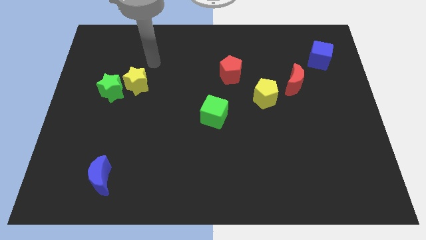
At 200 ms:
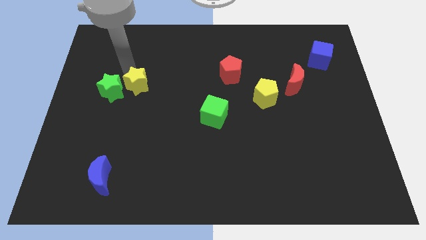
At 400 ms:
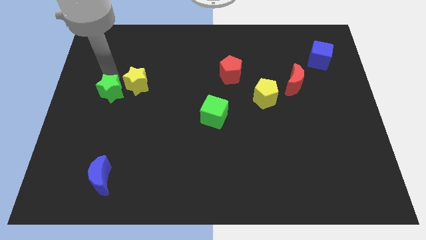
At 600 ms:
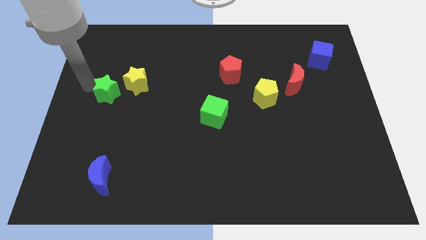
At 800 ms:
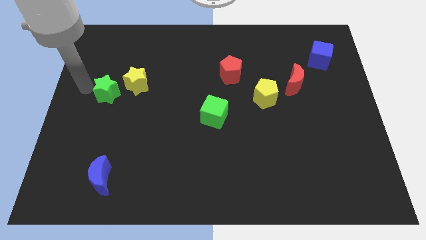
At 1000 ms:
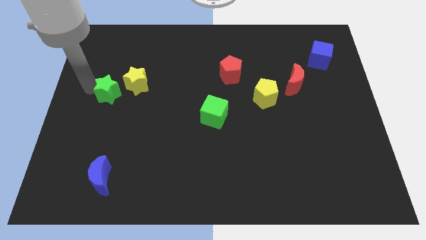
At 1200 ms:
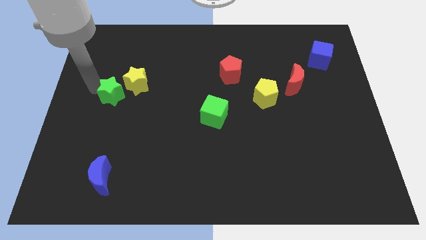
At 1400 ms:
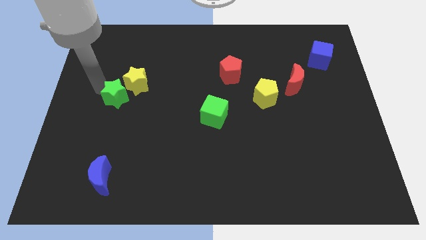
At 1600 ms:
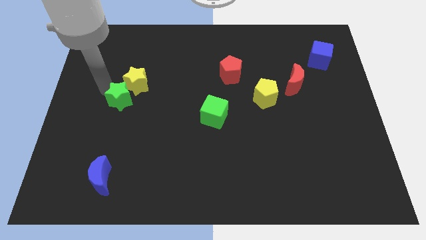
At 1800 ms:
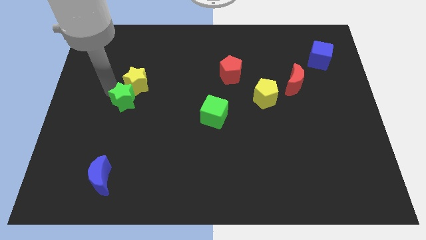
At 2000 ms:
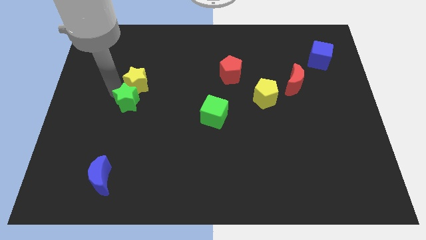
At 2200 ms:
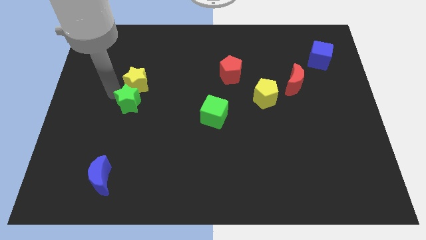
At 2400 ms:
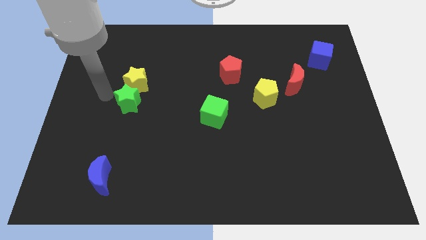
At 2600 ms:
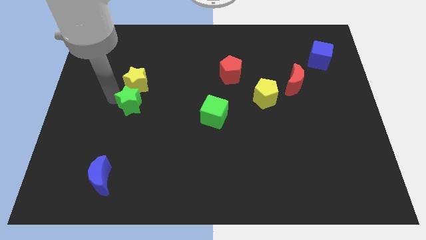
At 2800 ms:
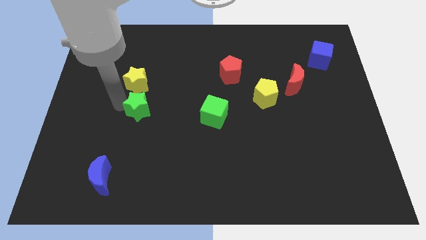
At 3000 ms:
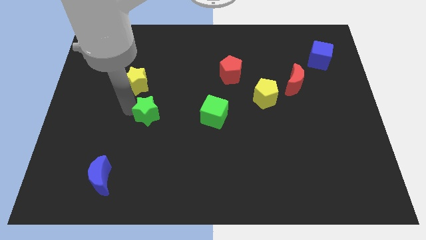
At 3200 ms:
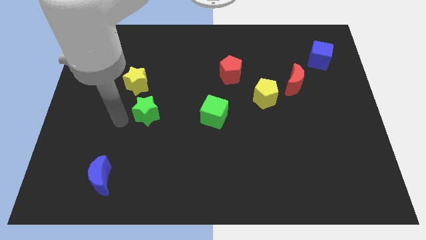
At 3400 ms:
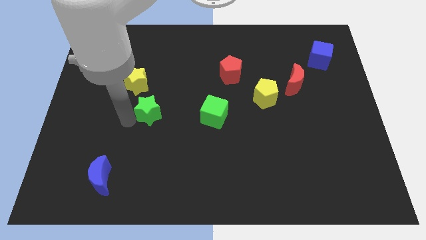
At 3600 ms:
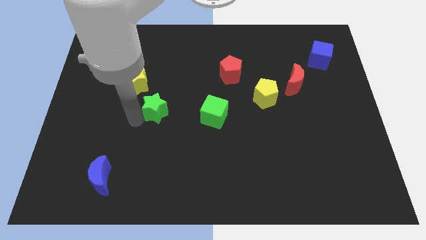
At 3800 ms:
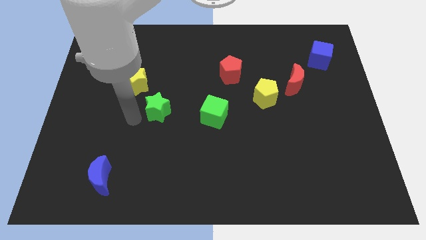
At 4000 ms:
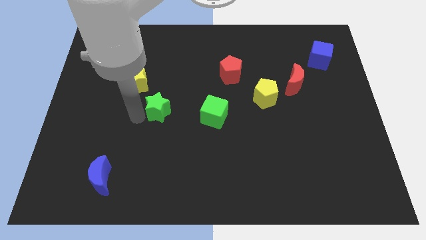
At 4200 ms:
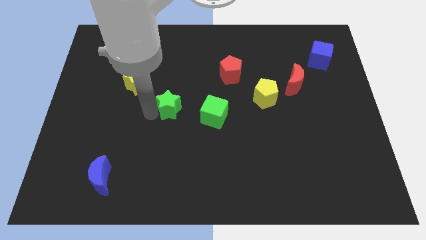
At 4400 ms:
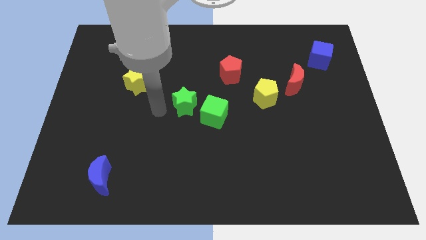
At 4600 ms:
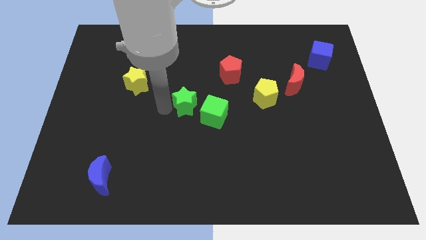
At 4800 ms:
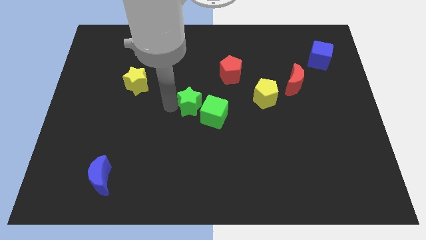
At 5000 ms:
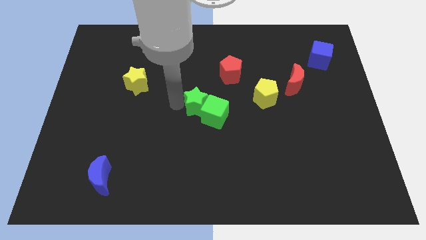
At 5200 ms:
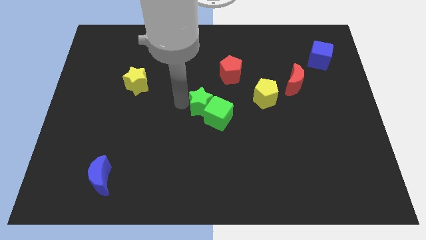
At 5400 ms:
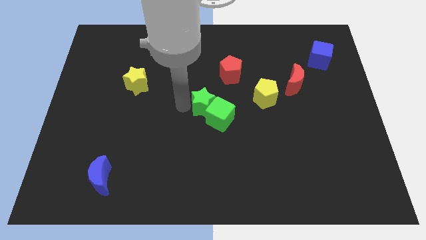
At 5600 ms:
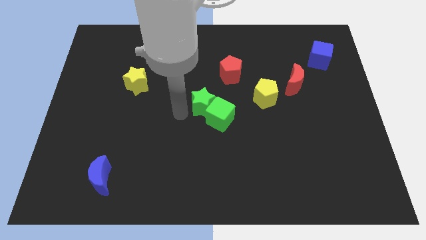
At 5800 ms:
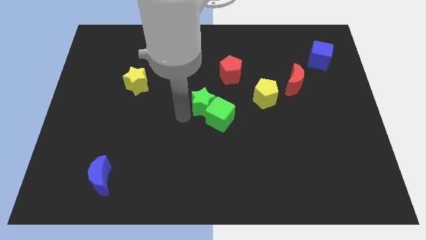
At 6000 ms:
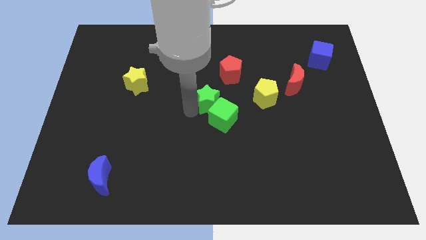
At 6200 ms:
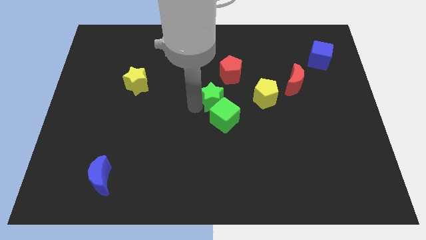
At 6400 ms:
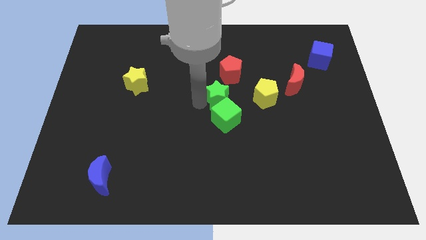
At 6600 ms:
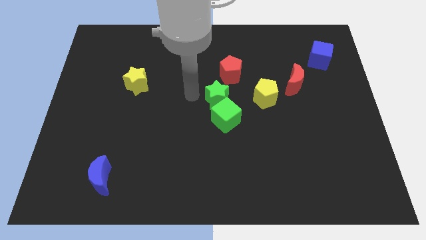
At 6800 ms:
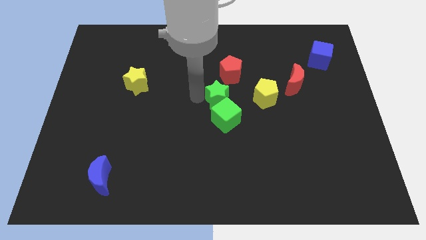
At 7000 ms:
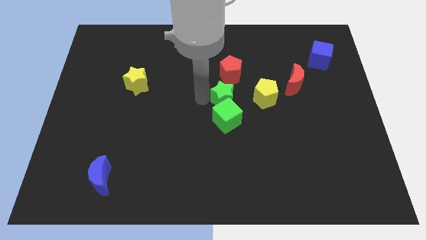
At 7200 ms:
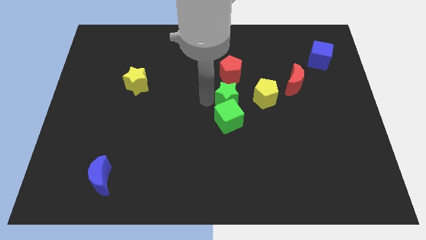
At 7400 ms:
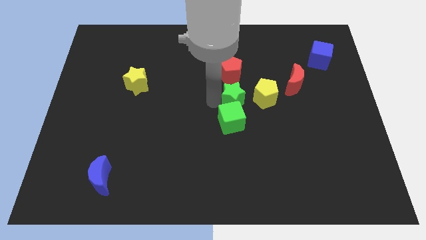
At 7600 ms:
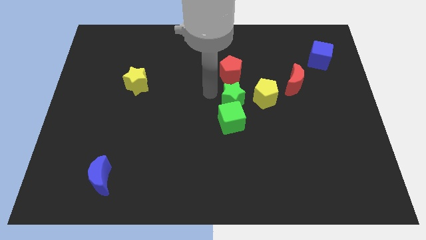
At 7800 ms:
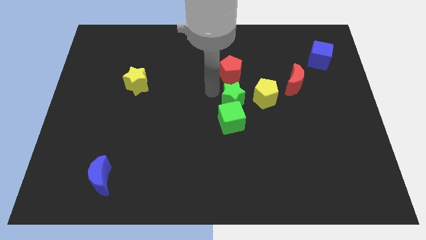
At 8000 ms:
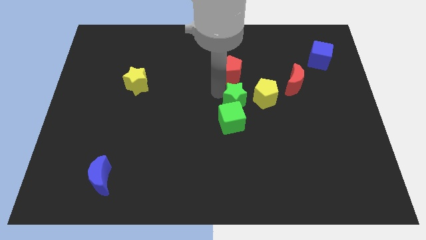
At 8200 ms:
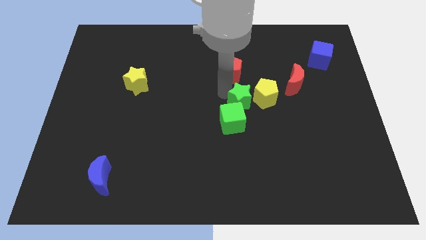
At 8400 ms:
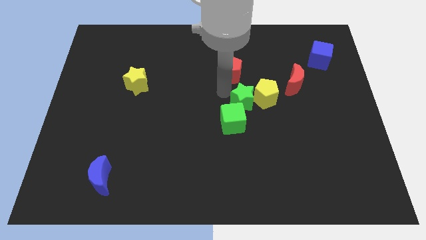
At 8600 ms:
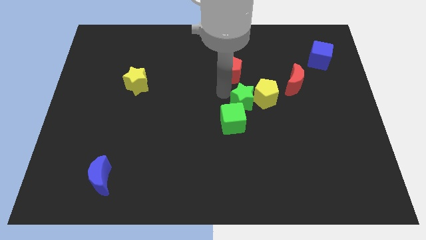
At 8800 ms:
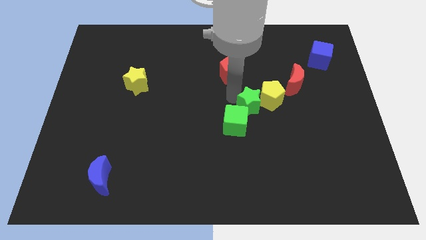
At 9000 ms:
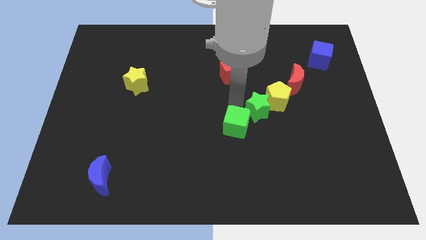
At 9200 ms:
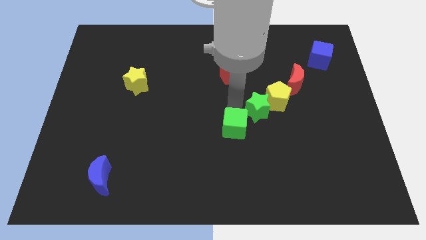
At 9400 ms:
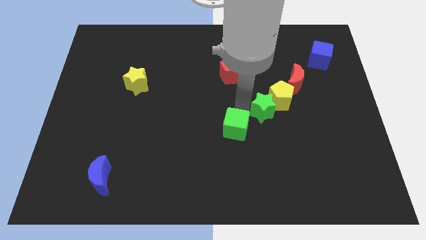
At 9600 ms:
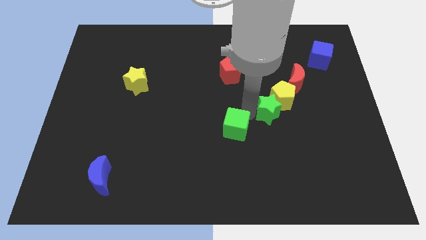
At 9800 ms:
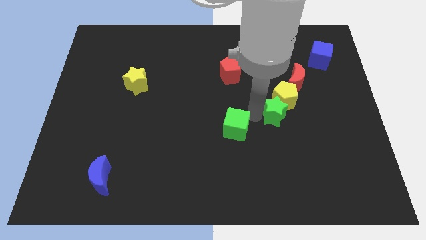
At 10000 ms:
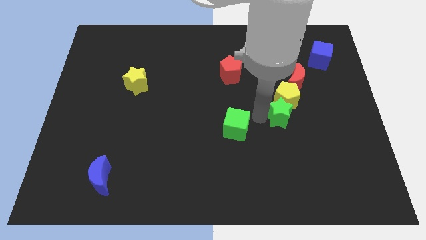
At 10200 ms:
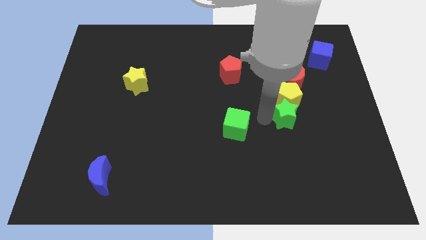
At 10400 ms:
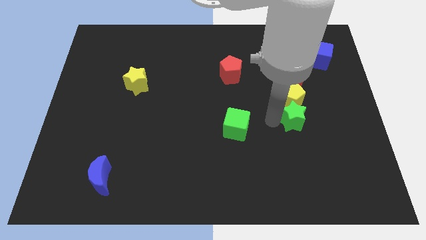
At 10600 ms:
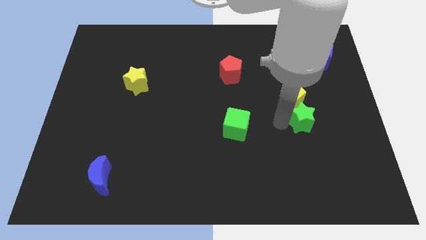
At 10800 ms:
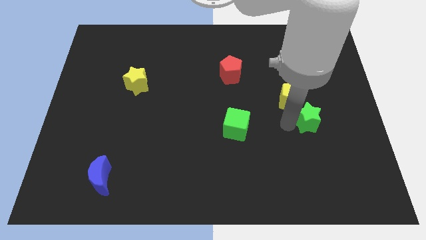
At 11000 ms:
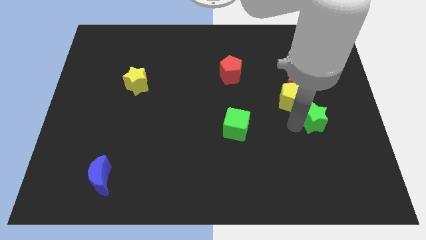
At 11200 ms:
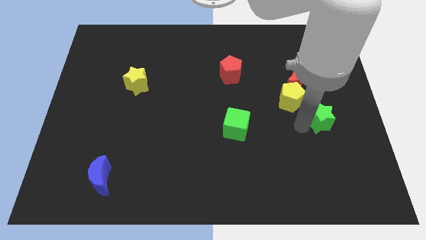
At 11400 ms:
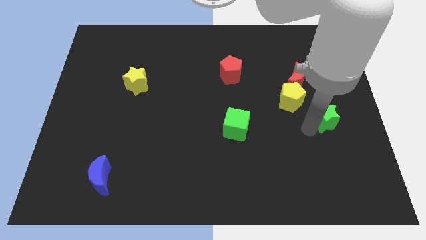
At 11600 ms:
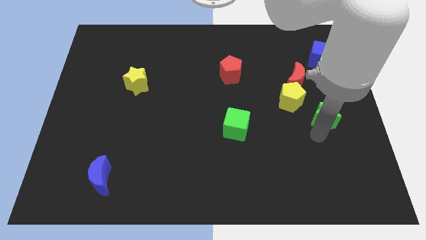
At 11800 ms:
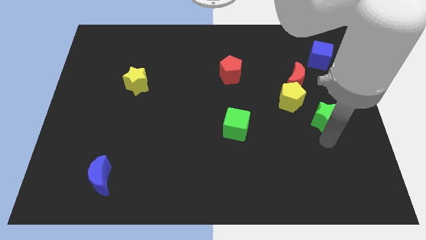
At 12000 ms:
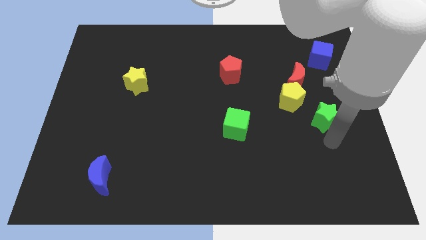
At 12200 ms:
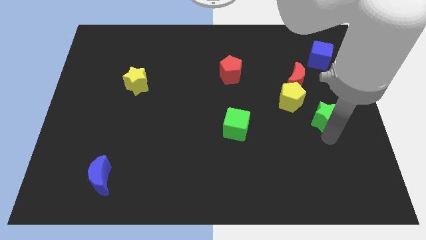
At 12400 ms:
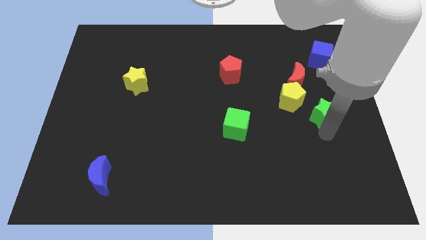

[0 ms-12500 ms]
move the green star to the center right

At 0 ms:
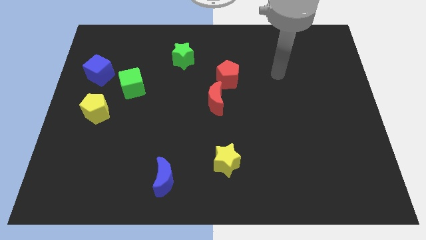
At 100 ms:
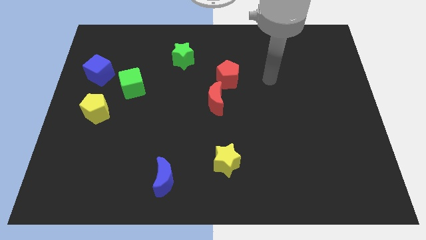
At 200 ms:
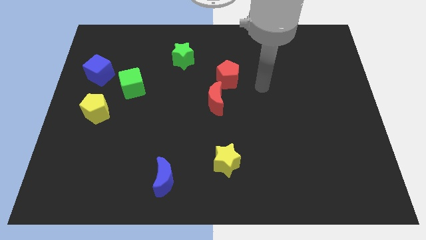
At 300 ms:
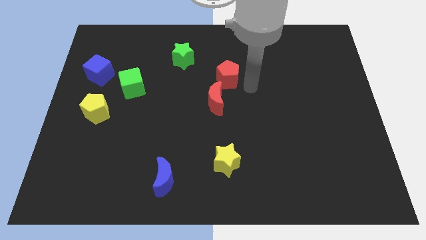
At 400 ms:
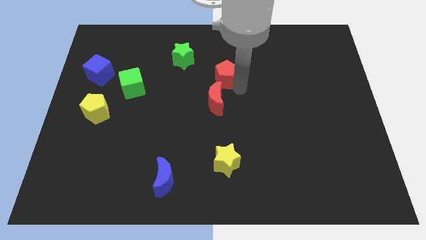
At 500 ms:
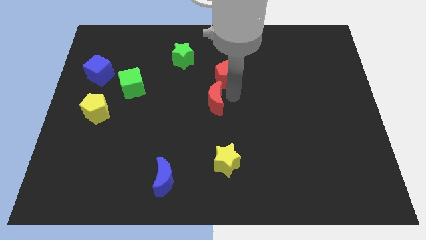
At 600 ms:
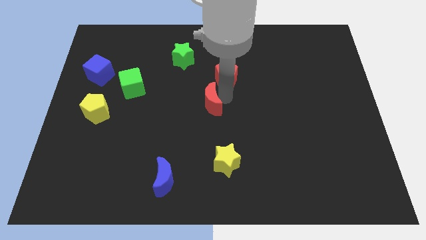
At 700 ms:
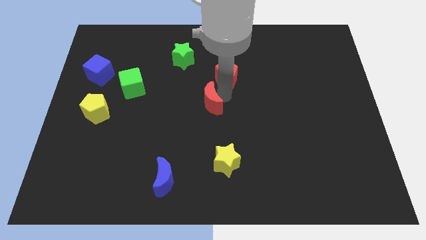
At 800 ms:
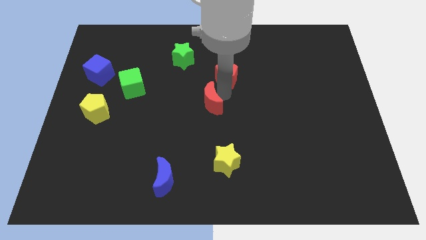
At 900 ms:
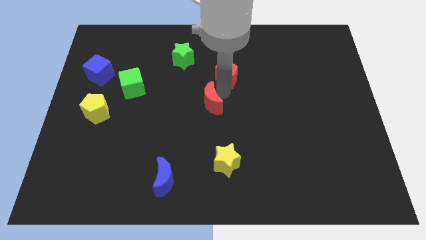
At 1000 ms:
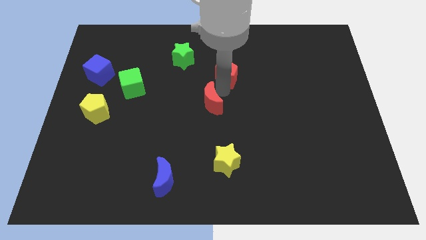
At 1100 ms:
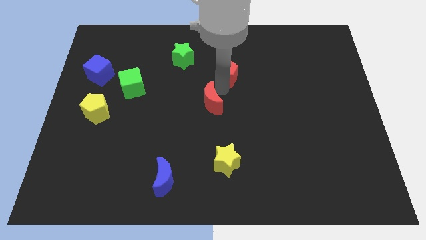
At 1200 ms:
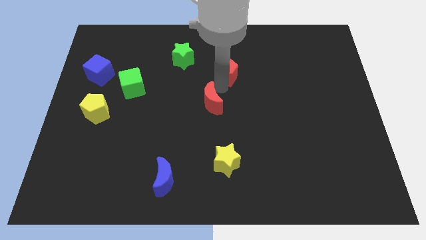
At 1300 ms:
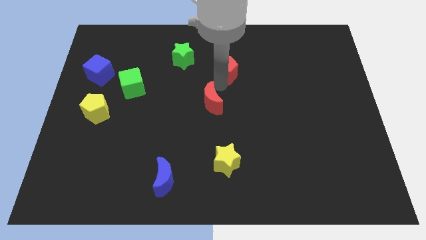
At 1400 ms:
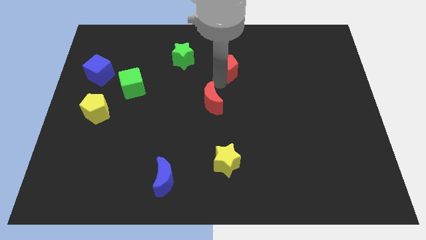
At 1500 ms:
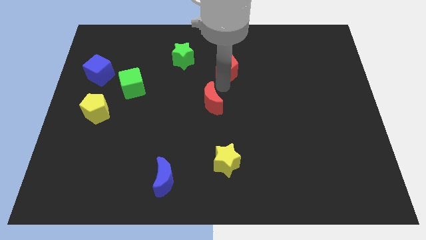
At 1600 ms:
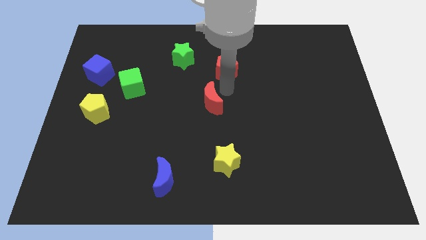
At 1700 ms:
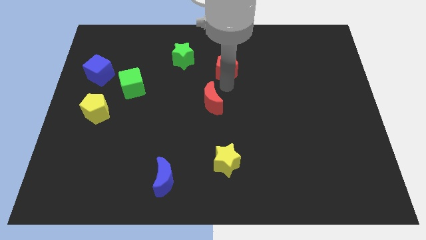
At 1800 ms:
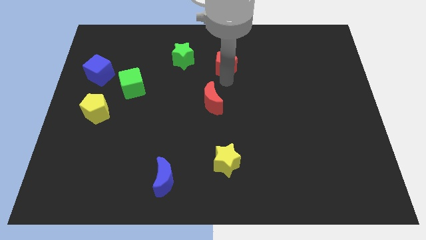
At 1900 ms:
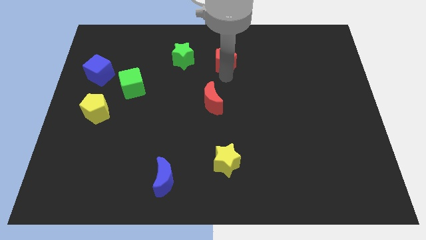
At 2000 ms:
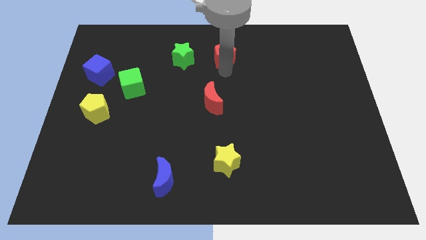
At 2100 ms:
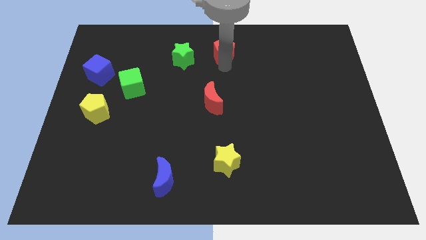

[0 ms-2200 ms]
put the red pentagon to the top side
